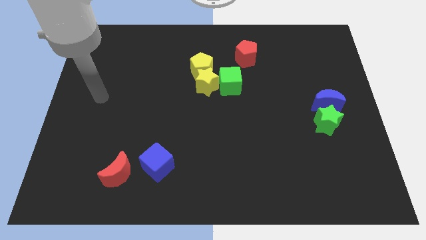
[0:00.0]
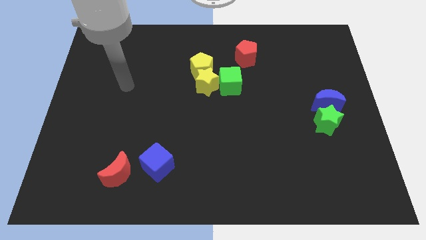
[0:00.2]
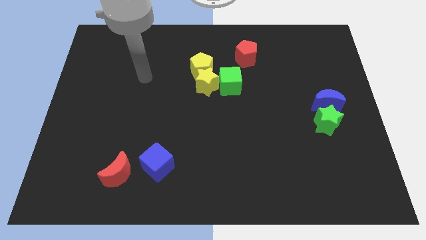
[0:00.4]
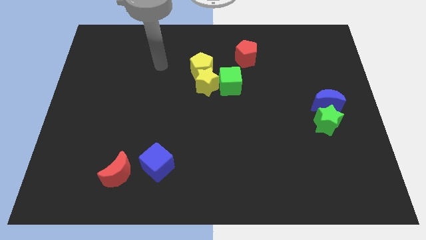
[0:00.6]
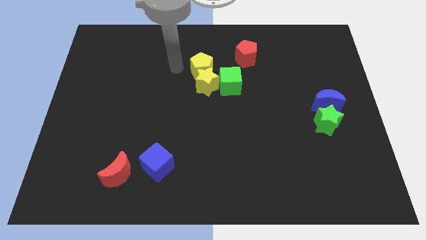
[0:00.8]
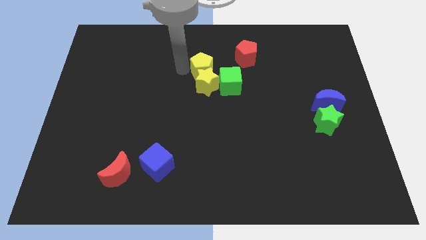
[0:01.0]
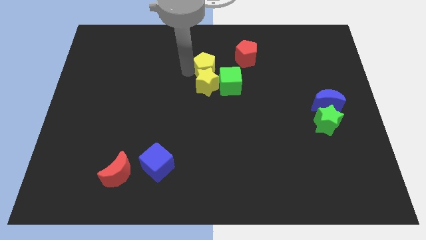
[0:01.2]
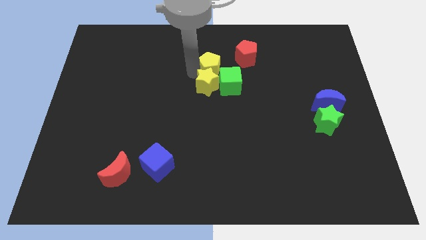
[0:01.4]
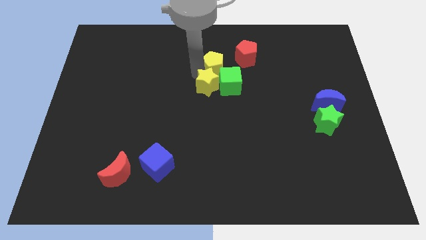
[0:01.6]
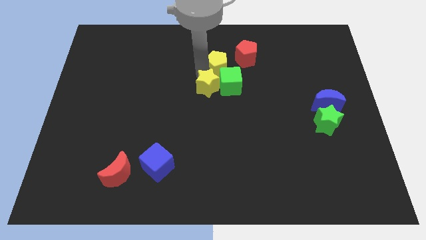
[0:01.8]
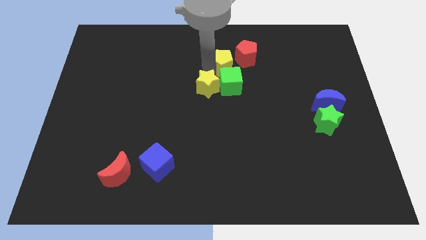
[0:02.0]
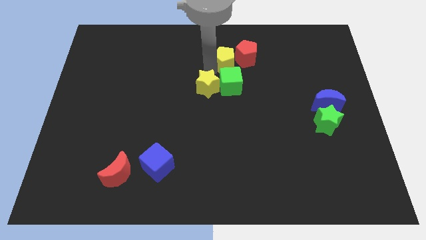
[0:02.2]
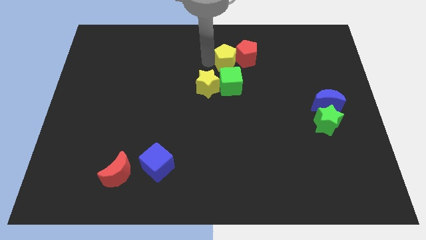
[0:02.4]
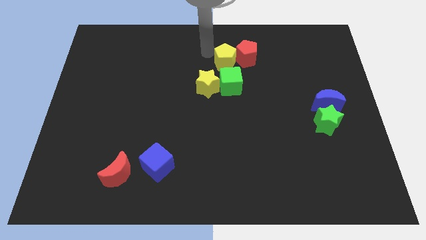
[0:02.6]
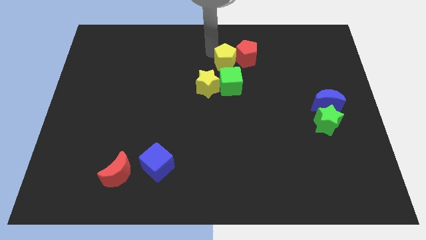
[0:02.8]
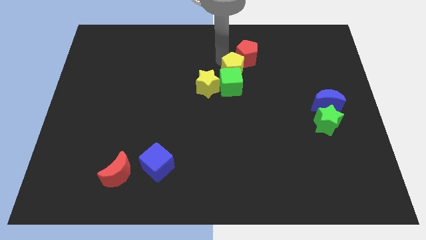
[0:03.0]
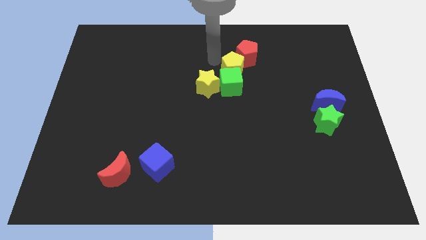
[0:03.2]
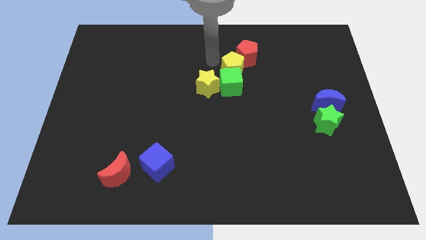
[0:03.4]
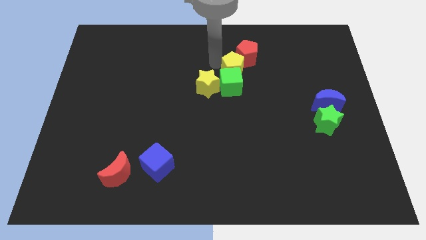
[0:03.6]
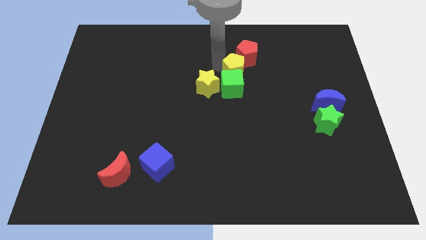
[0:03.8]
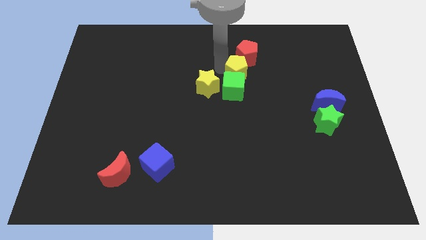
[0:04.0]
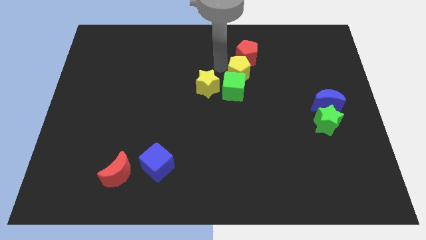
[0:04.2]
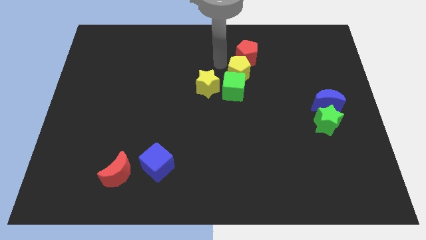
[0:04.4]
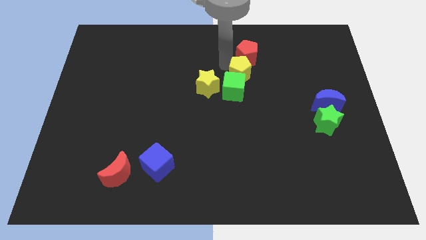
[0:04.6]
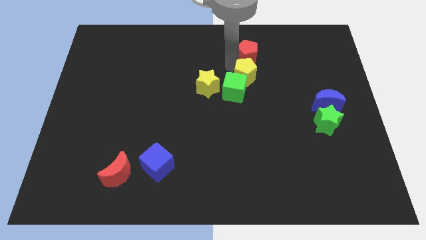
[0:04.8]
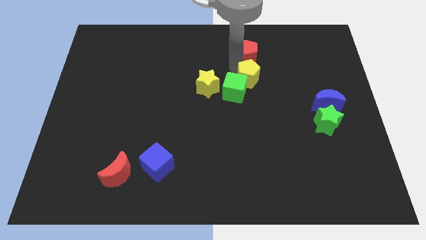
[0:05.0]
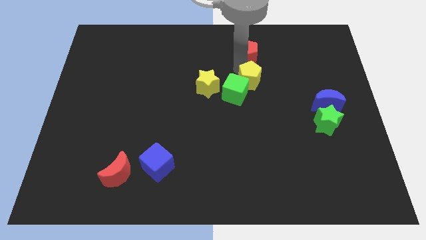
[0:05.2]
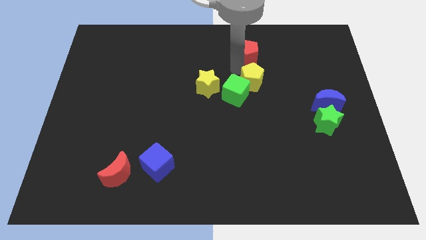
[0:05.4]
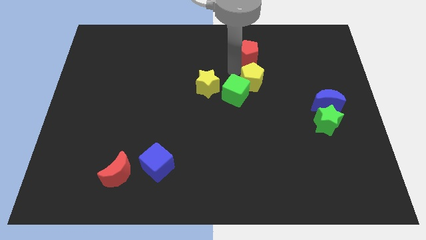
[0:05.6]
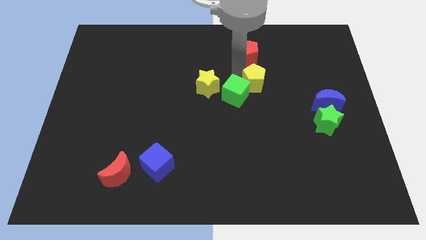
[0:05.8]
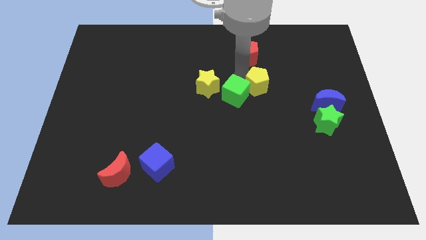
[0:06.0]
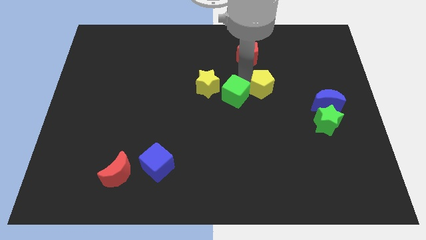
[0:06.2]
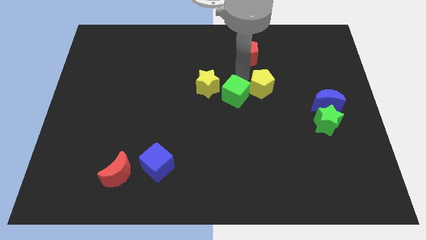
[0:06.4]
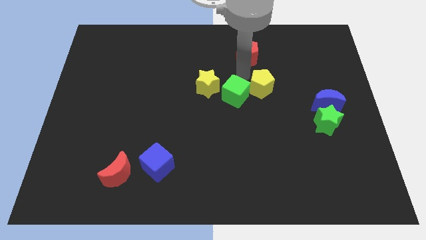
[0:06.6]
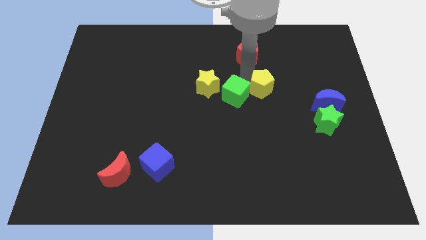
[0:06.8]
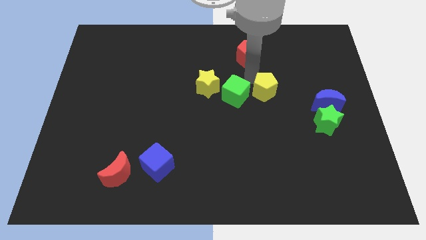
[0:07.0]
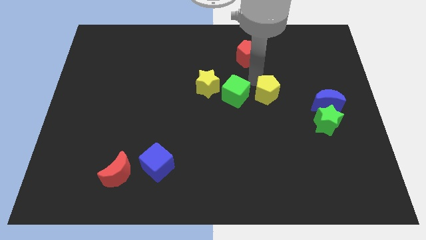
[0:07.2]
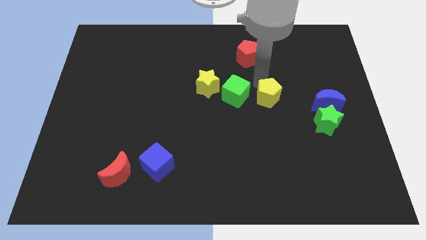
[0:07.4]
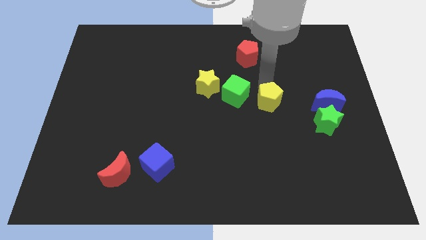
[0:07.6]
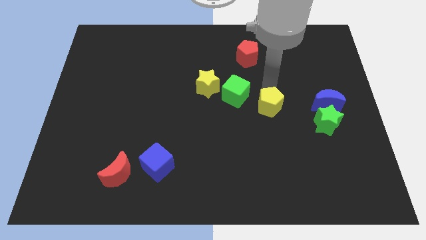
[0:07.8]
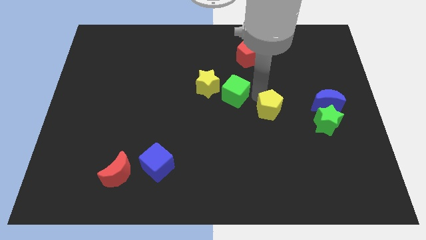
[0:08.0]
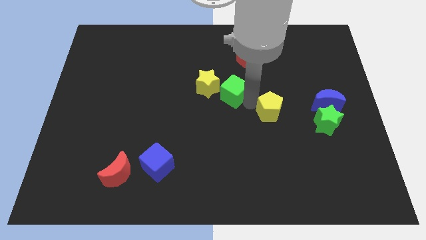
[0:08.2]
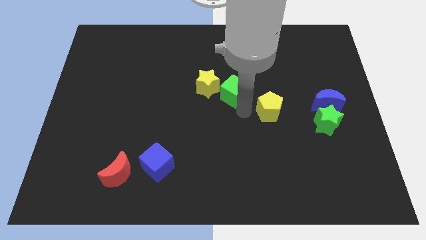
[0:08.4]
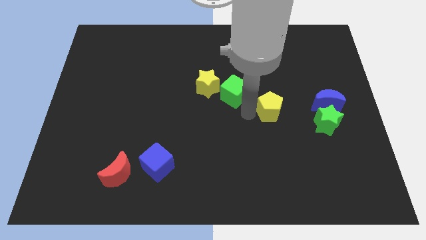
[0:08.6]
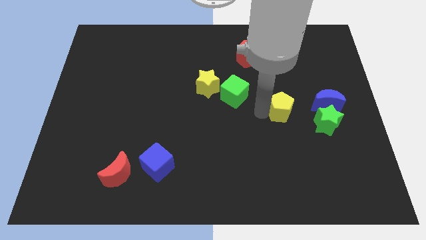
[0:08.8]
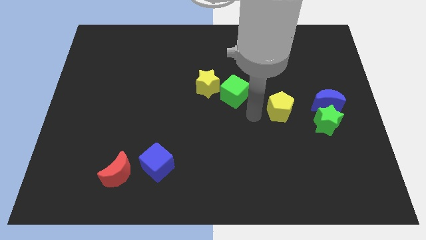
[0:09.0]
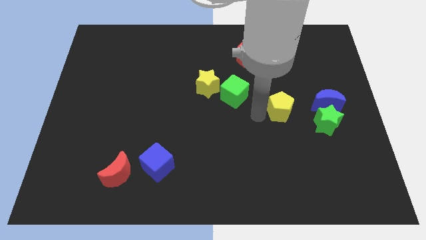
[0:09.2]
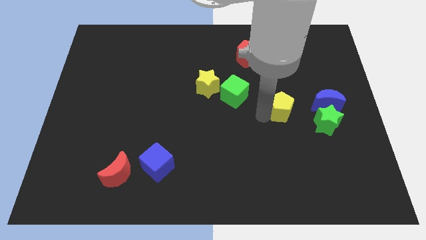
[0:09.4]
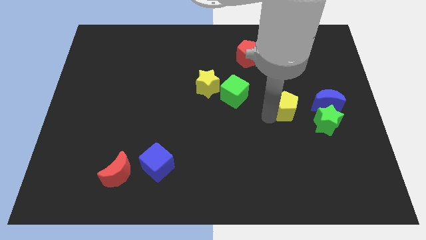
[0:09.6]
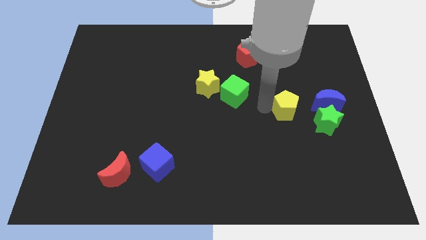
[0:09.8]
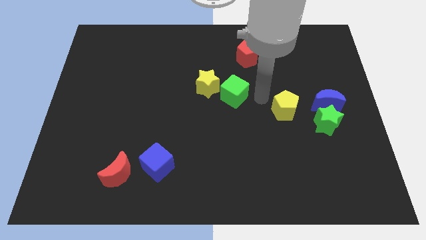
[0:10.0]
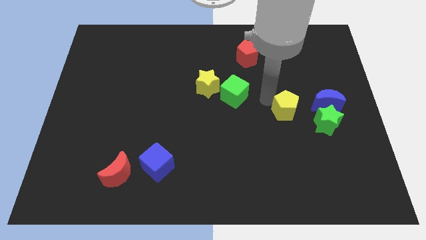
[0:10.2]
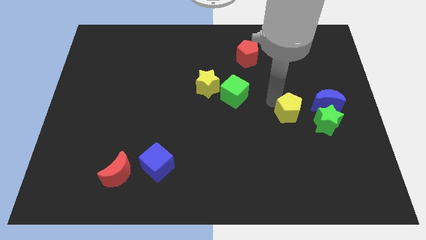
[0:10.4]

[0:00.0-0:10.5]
push the yellow pentagon diagonally down and to the left of the blue moon

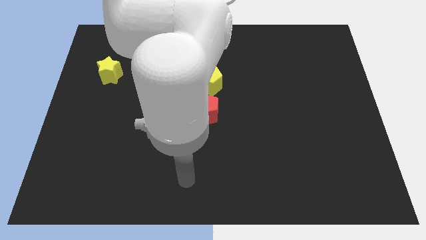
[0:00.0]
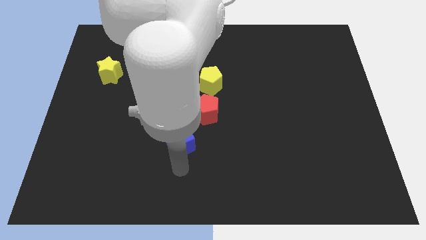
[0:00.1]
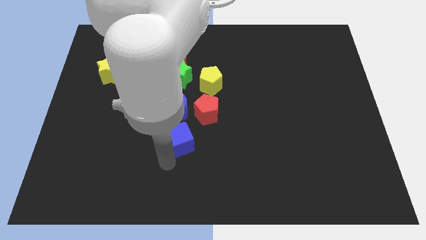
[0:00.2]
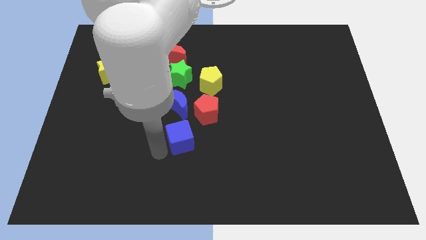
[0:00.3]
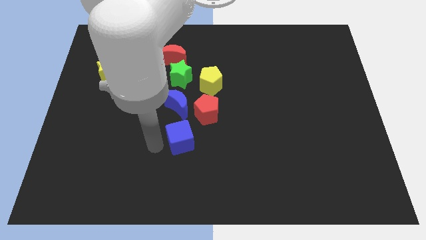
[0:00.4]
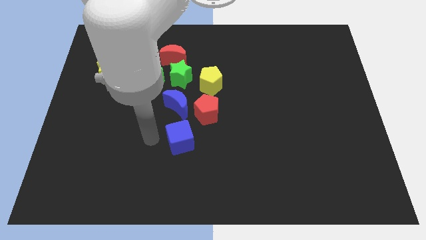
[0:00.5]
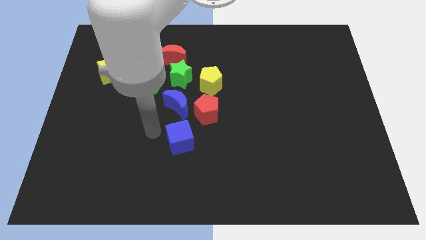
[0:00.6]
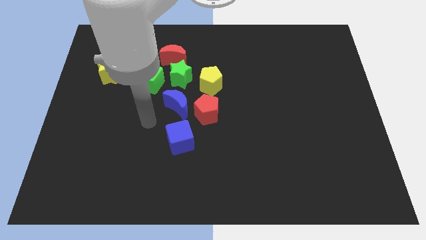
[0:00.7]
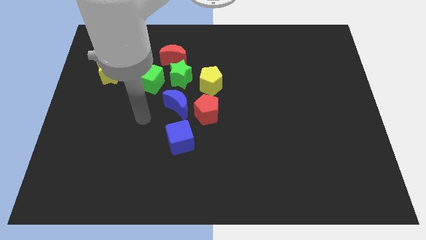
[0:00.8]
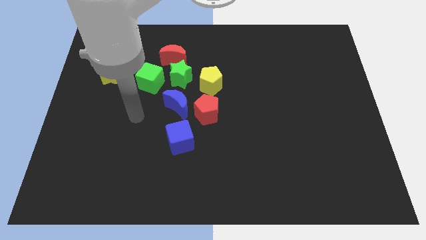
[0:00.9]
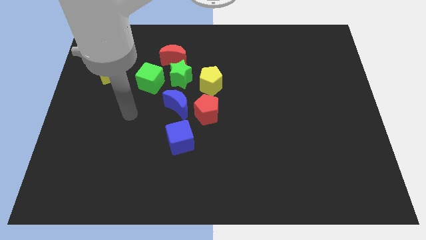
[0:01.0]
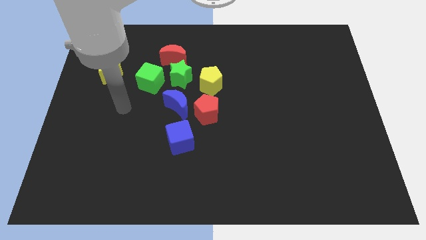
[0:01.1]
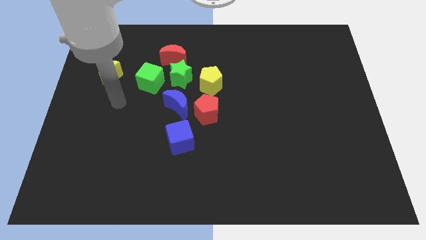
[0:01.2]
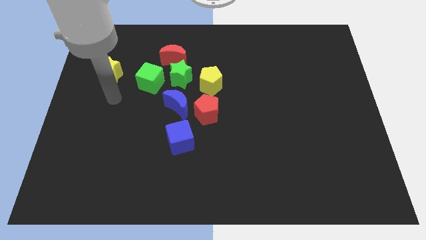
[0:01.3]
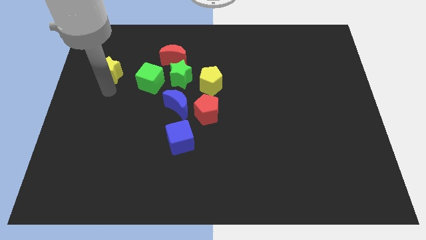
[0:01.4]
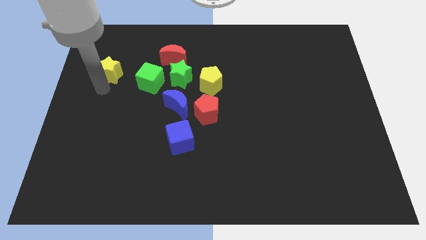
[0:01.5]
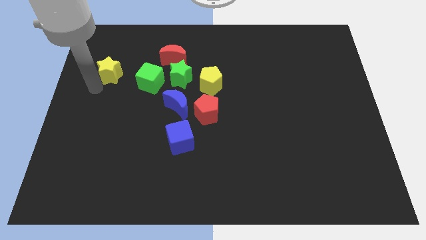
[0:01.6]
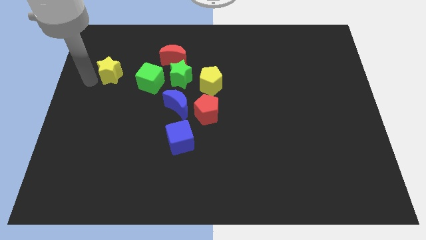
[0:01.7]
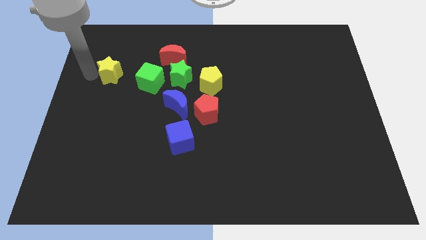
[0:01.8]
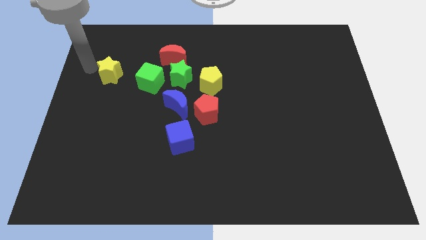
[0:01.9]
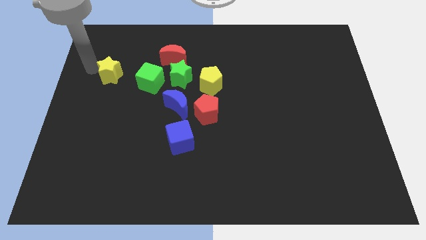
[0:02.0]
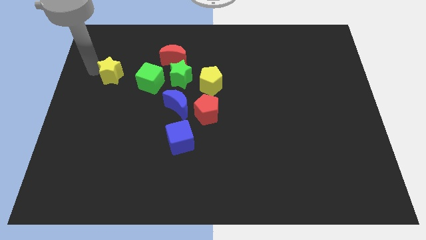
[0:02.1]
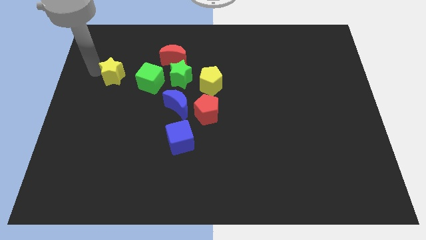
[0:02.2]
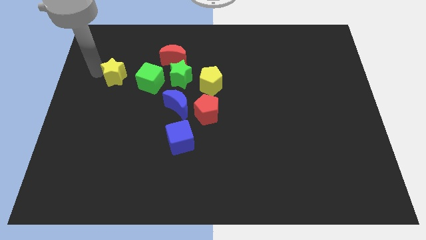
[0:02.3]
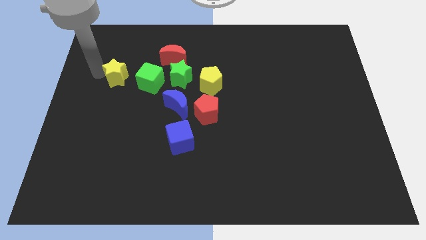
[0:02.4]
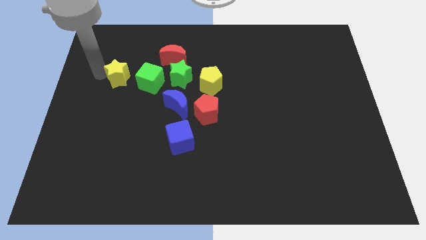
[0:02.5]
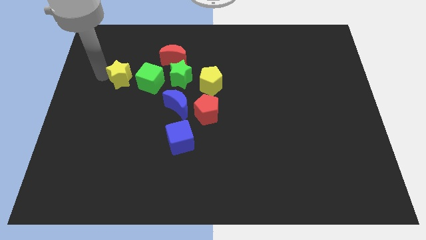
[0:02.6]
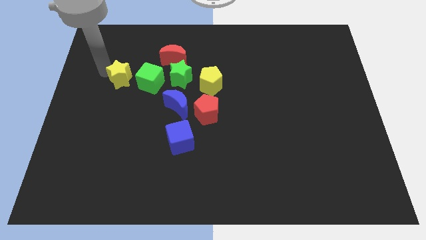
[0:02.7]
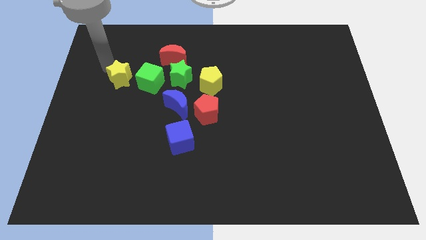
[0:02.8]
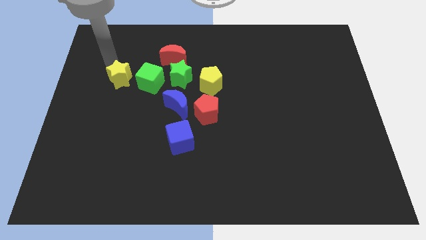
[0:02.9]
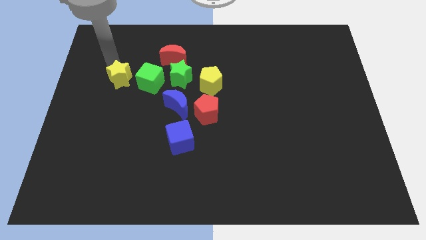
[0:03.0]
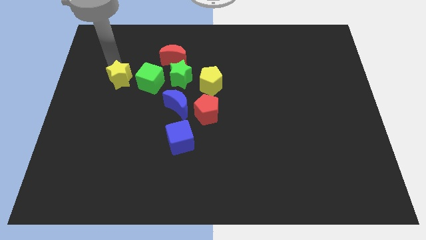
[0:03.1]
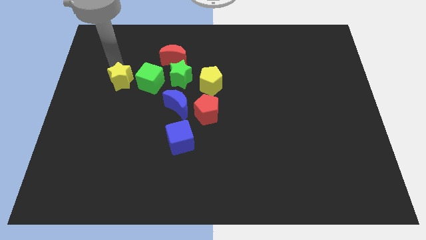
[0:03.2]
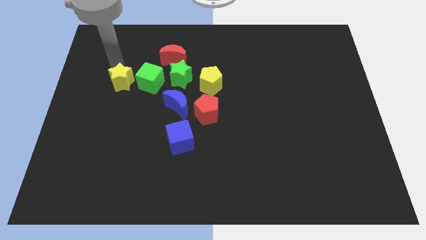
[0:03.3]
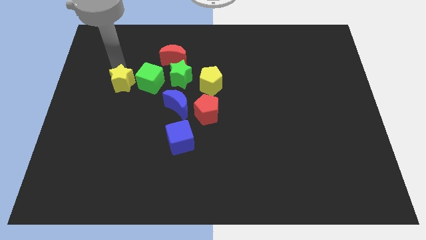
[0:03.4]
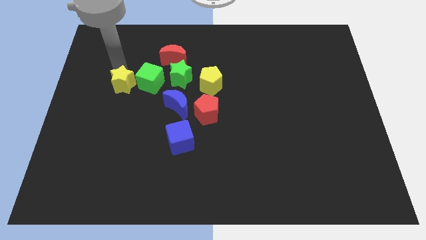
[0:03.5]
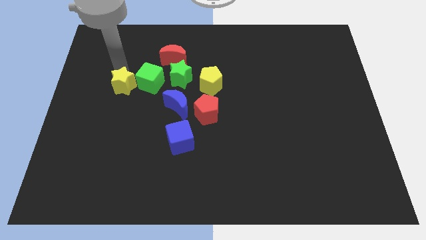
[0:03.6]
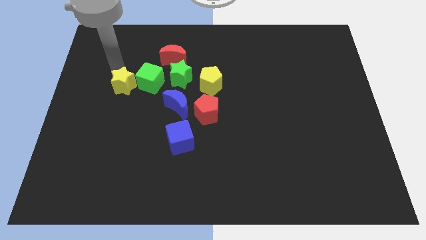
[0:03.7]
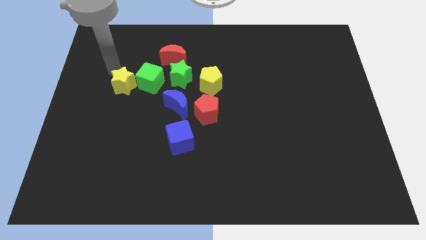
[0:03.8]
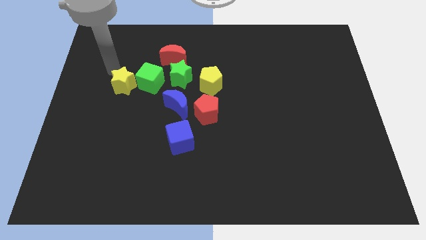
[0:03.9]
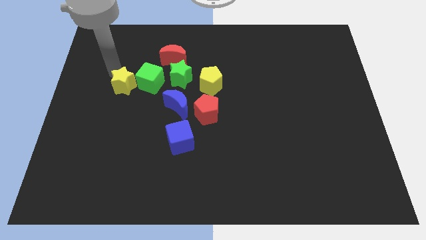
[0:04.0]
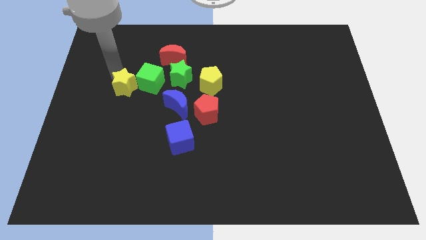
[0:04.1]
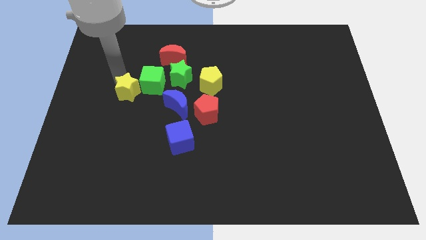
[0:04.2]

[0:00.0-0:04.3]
push the yellow star left of the blue moon
